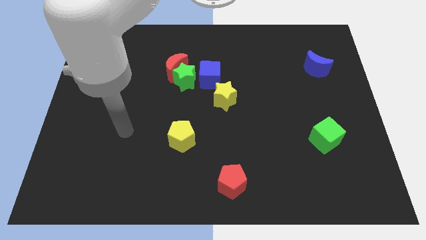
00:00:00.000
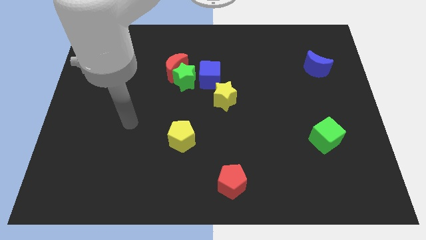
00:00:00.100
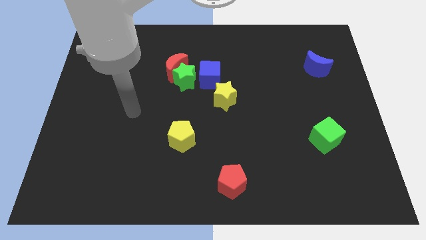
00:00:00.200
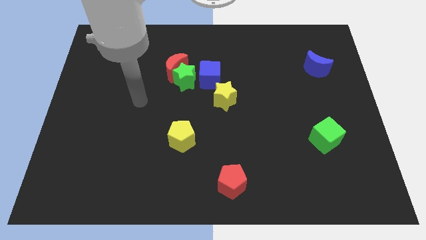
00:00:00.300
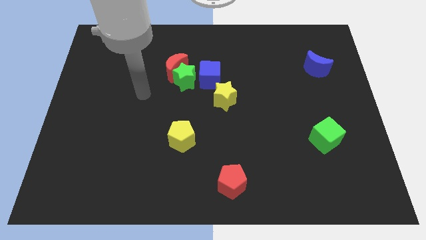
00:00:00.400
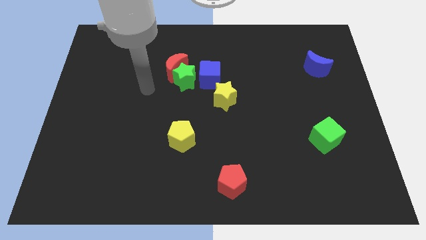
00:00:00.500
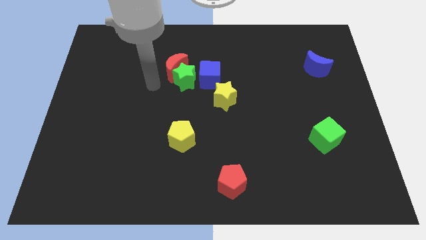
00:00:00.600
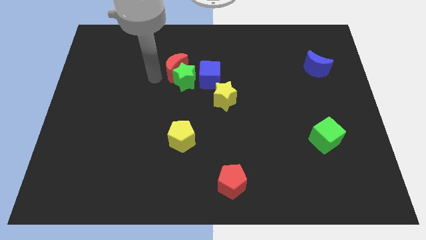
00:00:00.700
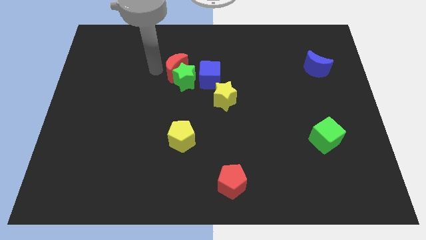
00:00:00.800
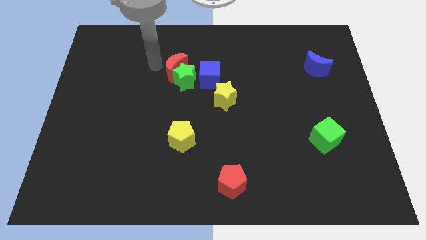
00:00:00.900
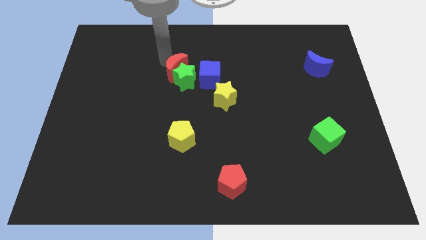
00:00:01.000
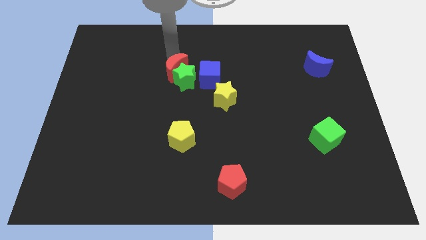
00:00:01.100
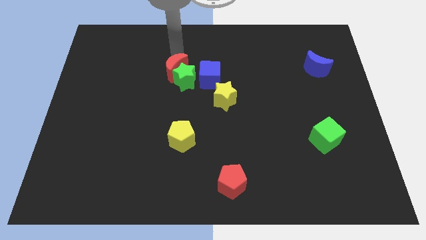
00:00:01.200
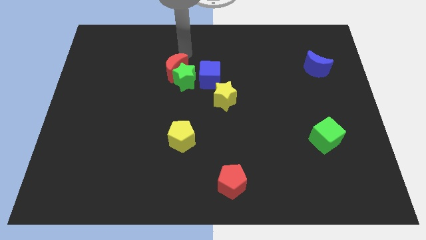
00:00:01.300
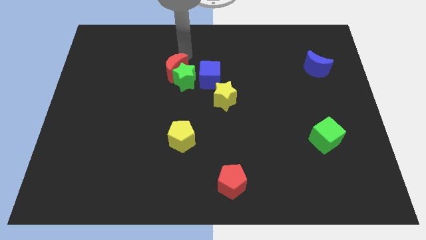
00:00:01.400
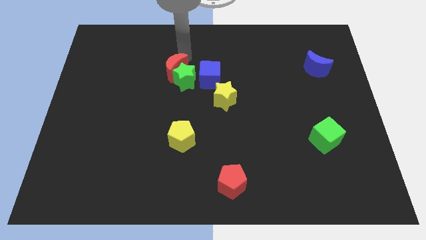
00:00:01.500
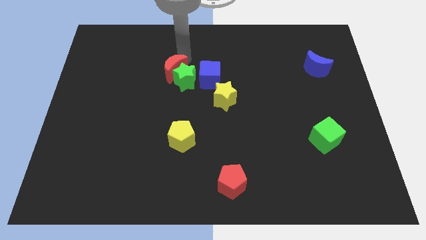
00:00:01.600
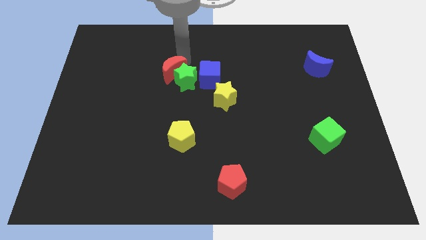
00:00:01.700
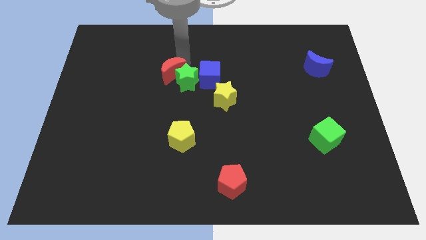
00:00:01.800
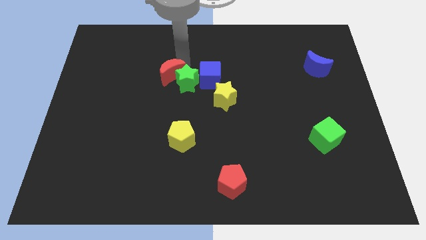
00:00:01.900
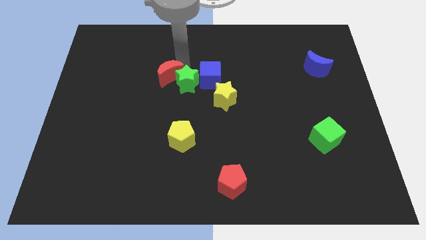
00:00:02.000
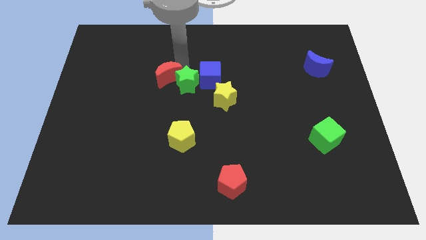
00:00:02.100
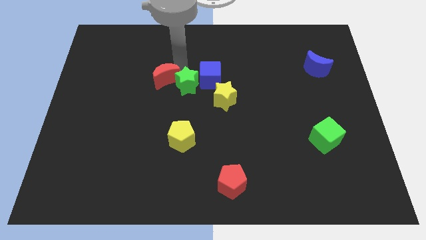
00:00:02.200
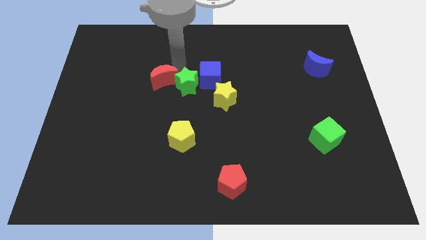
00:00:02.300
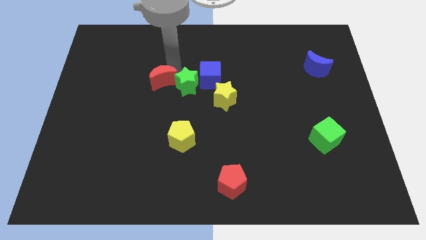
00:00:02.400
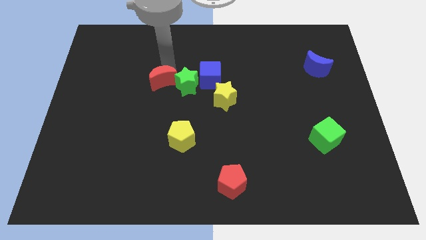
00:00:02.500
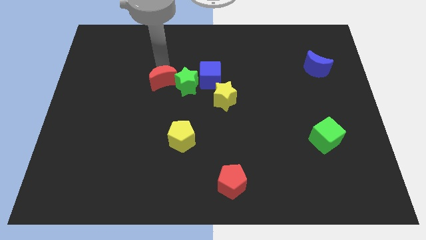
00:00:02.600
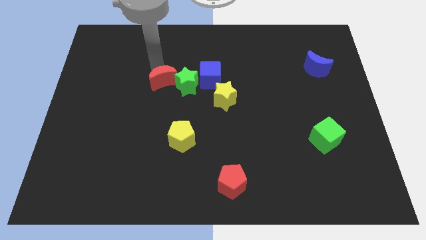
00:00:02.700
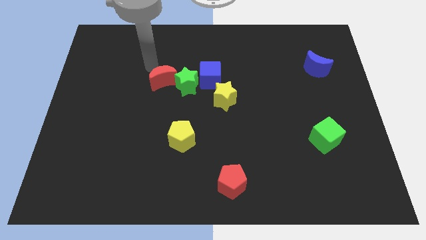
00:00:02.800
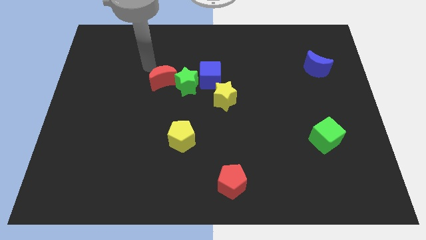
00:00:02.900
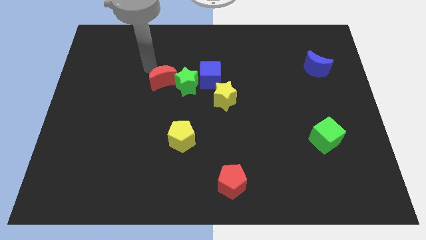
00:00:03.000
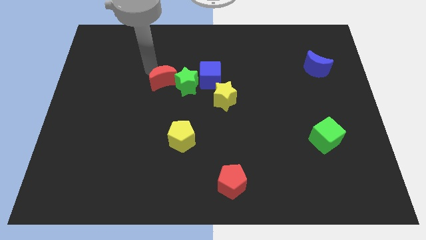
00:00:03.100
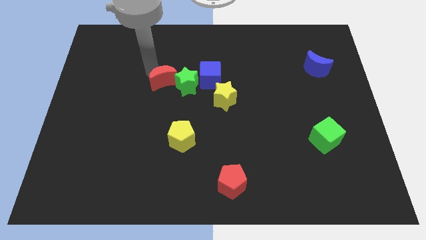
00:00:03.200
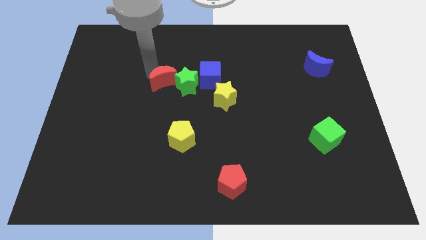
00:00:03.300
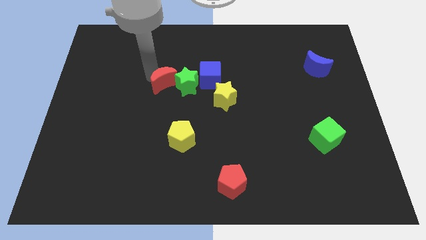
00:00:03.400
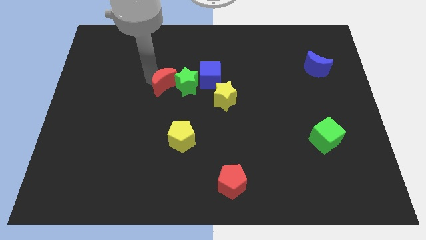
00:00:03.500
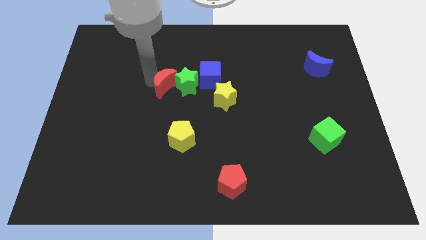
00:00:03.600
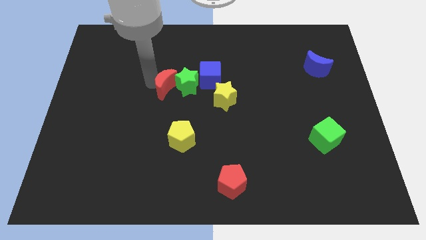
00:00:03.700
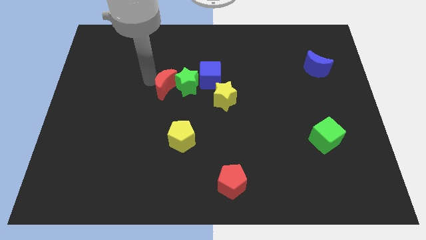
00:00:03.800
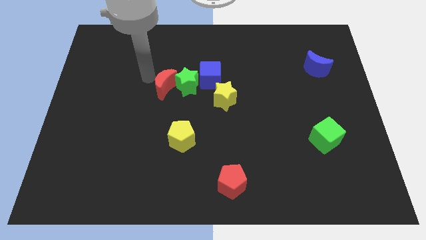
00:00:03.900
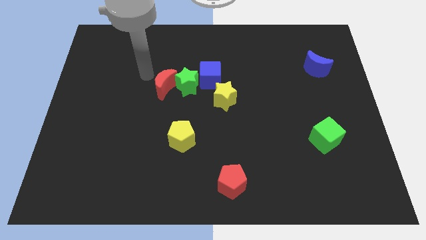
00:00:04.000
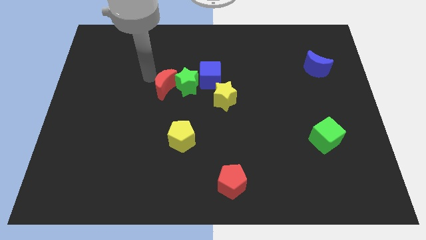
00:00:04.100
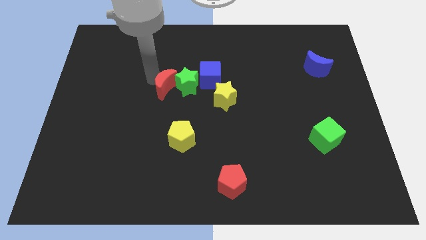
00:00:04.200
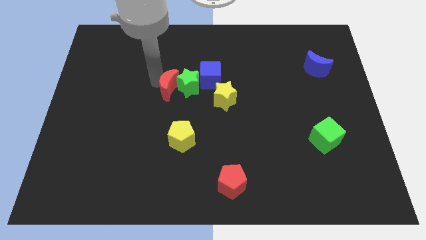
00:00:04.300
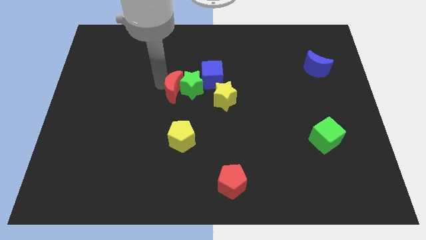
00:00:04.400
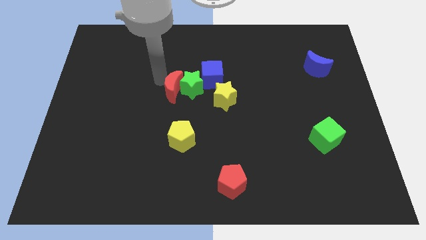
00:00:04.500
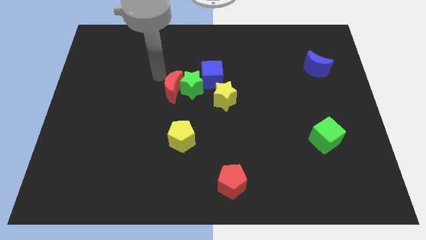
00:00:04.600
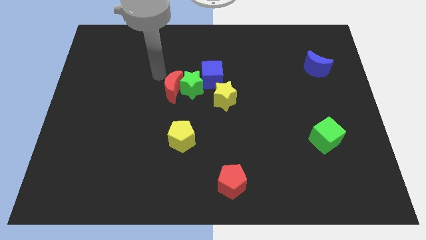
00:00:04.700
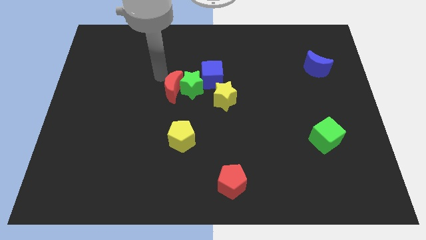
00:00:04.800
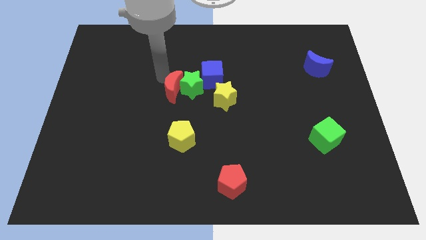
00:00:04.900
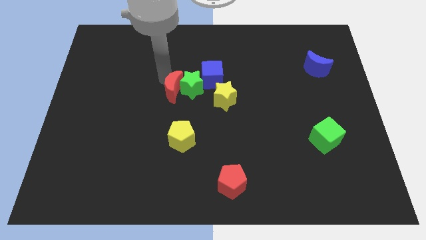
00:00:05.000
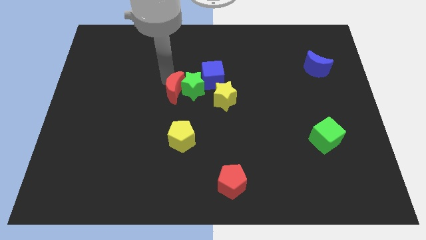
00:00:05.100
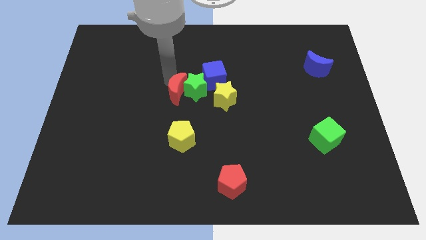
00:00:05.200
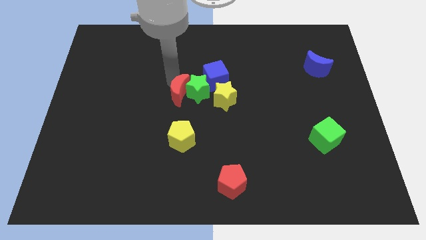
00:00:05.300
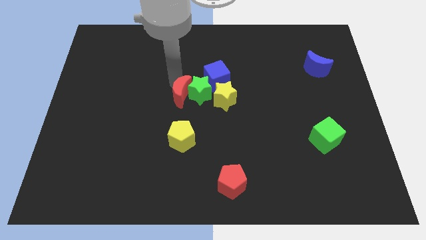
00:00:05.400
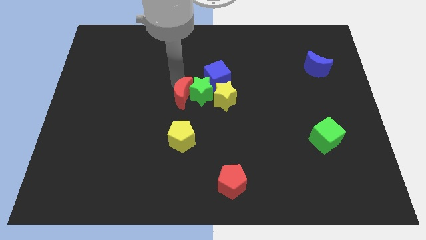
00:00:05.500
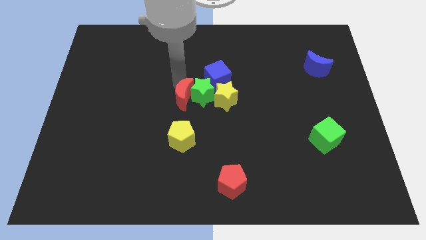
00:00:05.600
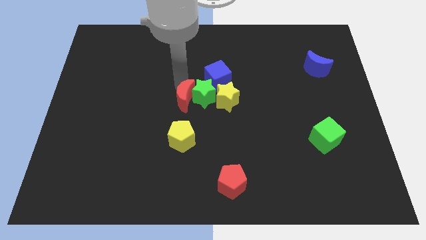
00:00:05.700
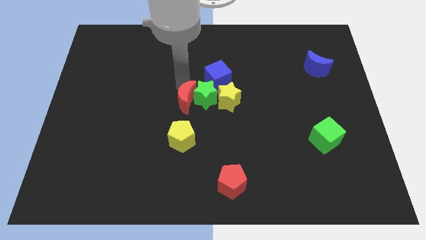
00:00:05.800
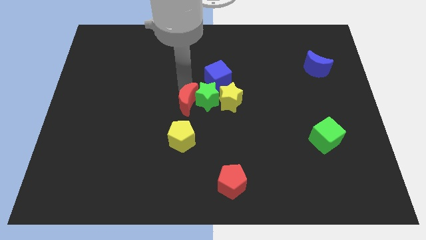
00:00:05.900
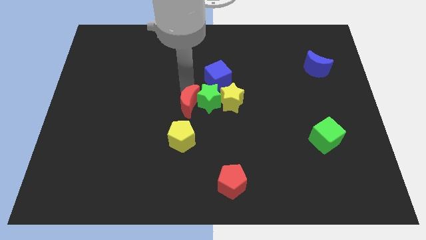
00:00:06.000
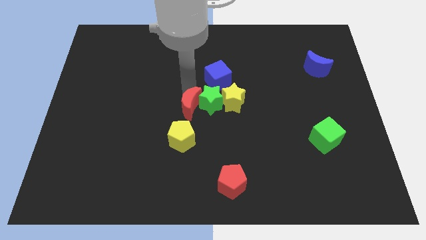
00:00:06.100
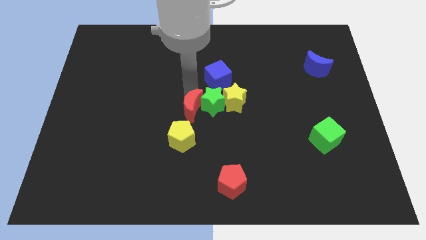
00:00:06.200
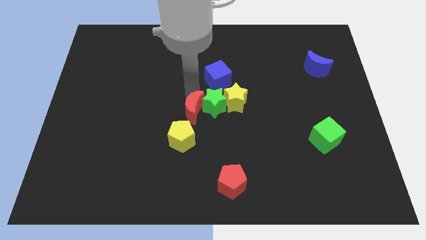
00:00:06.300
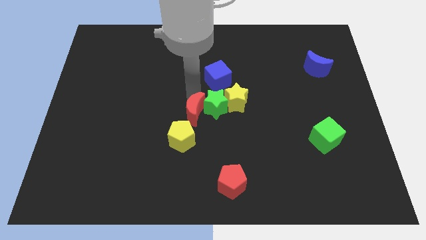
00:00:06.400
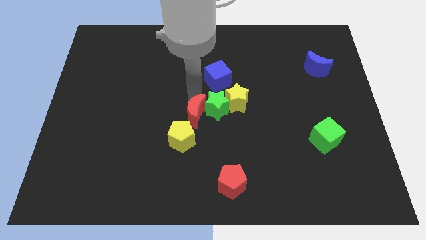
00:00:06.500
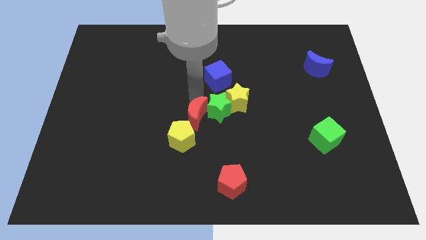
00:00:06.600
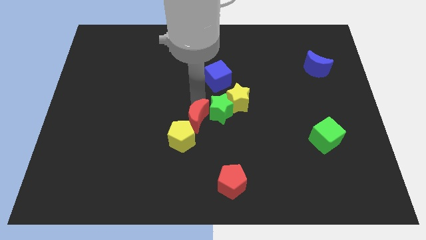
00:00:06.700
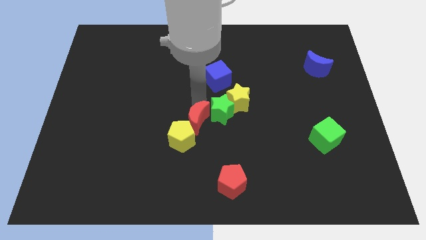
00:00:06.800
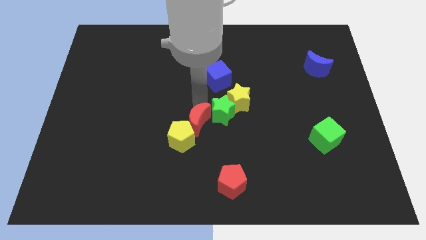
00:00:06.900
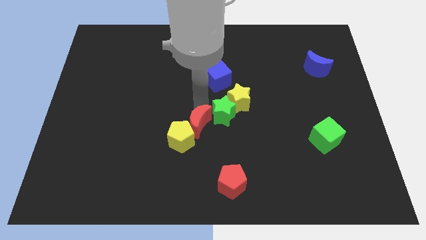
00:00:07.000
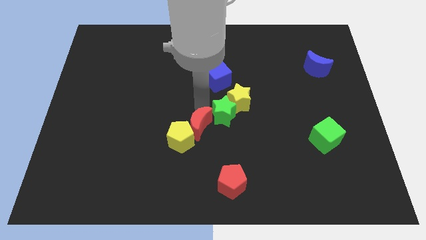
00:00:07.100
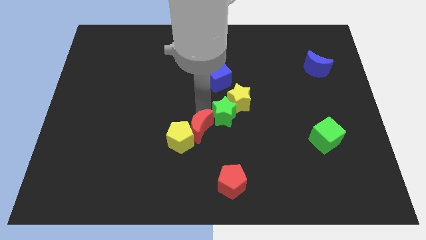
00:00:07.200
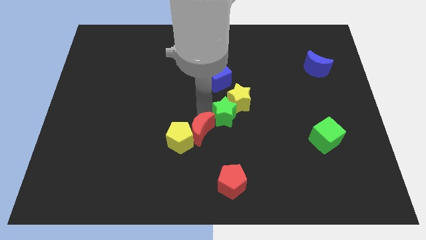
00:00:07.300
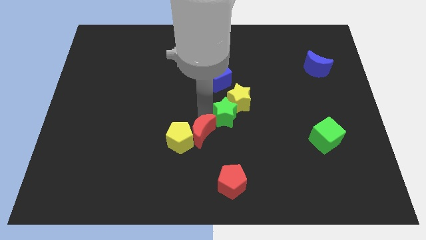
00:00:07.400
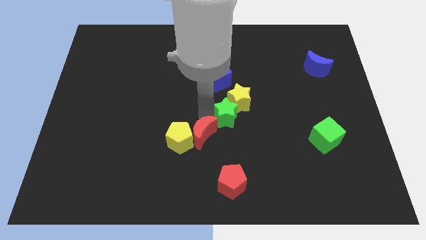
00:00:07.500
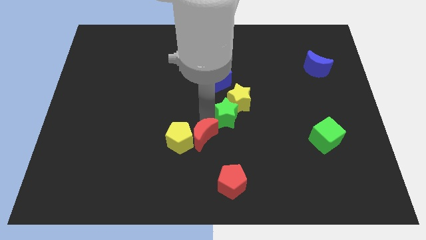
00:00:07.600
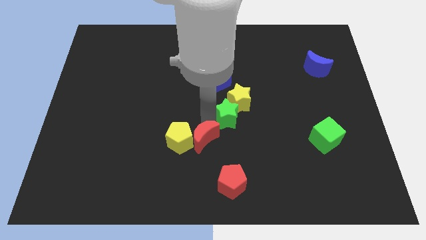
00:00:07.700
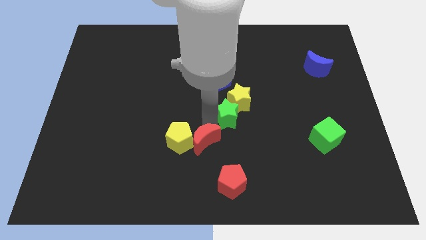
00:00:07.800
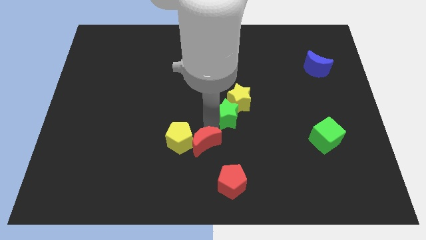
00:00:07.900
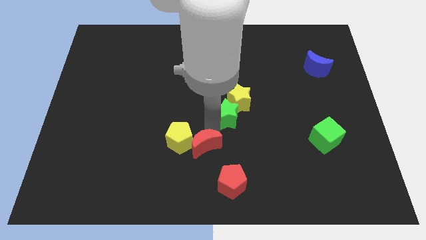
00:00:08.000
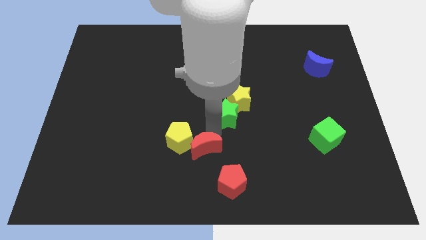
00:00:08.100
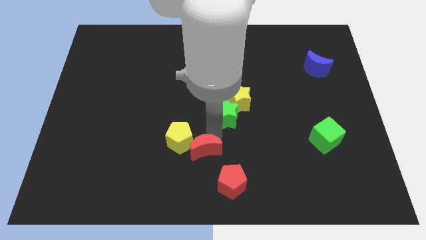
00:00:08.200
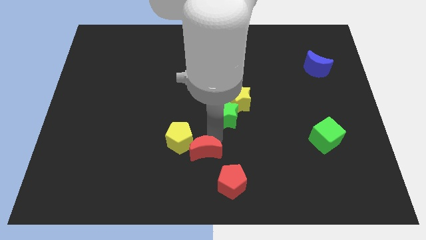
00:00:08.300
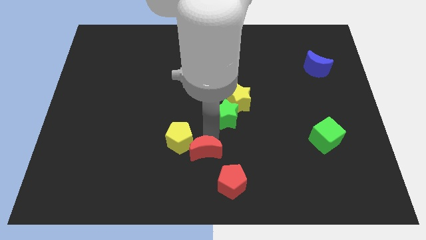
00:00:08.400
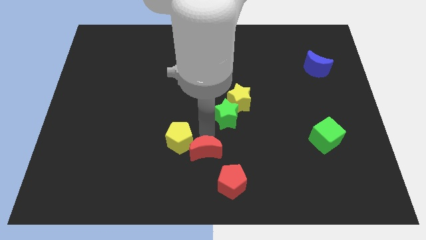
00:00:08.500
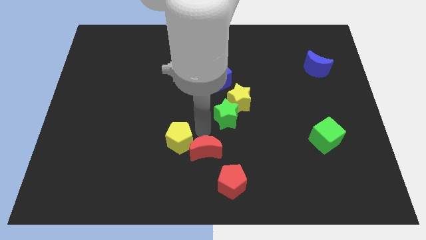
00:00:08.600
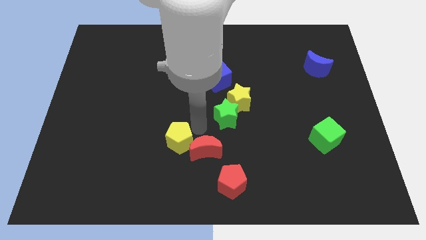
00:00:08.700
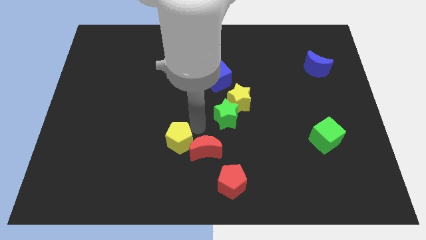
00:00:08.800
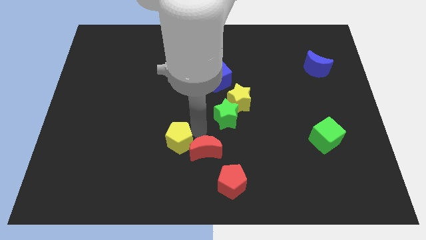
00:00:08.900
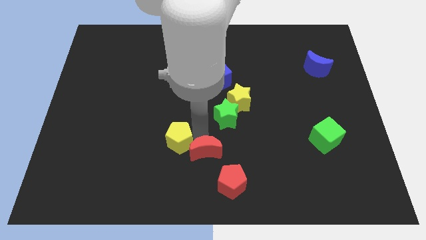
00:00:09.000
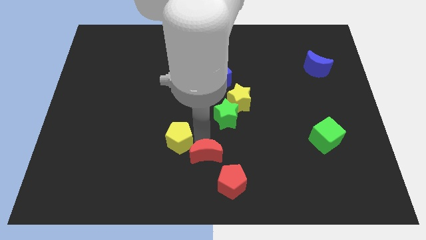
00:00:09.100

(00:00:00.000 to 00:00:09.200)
push the red moon to the bottom
